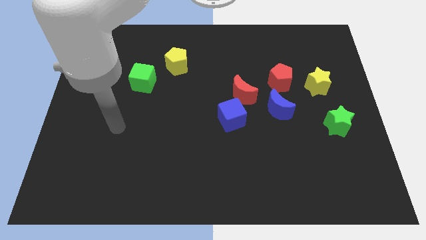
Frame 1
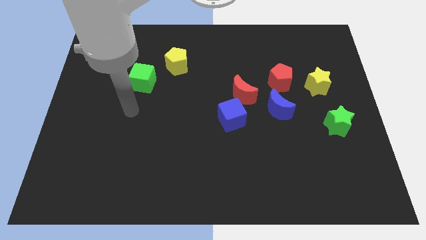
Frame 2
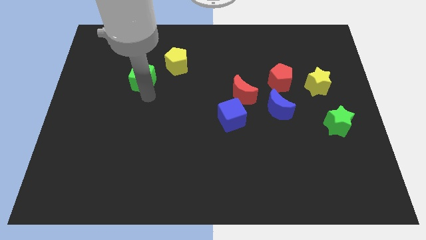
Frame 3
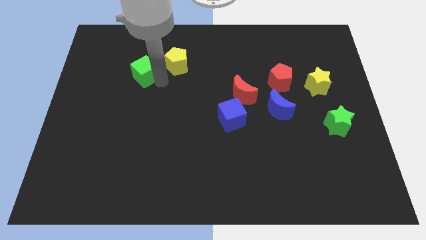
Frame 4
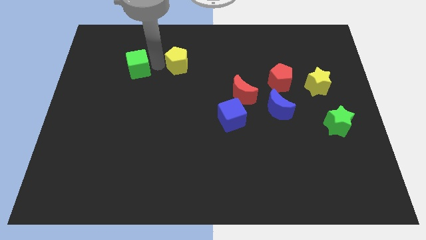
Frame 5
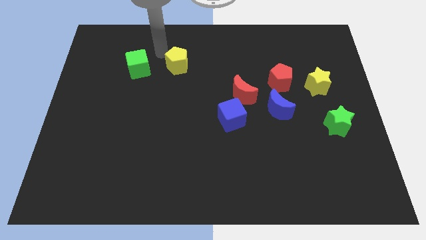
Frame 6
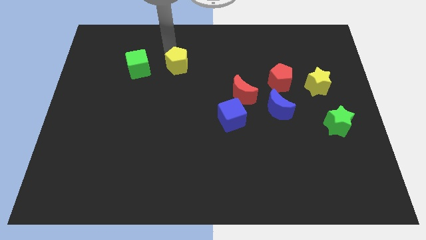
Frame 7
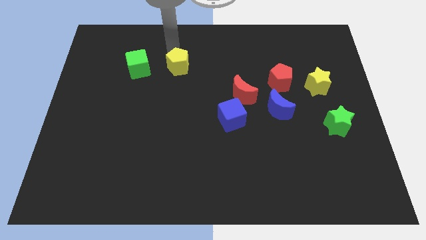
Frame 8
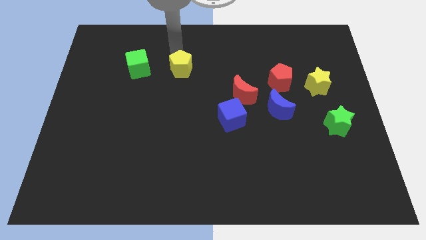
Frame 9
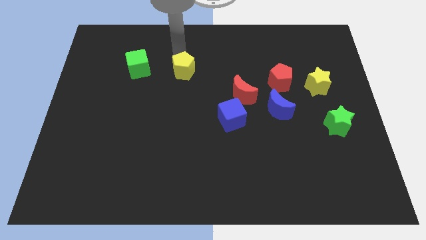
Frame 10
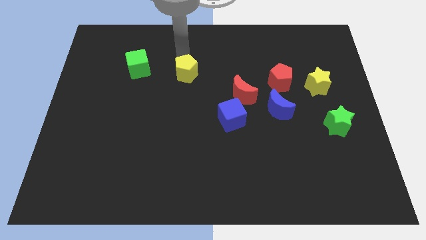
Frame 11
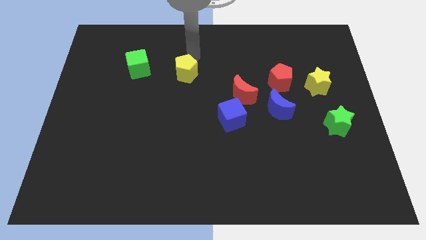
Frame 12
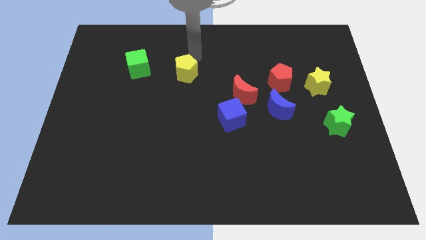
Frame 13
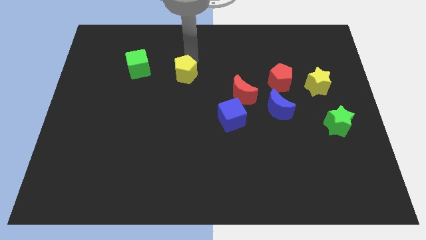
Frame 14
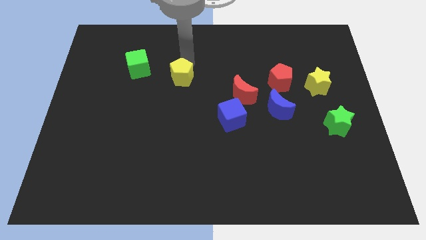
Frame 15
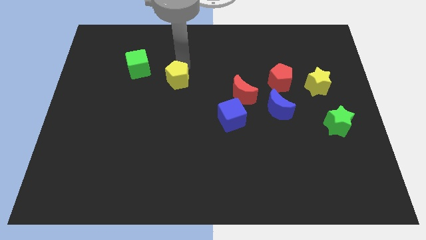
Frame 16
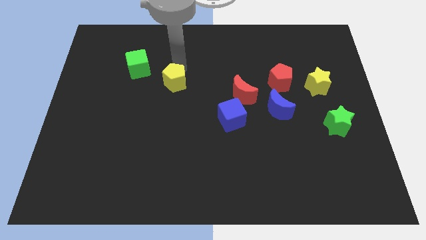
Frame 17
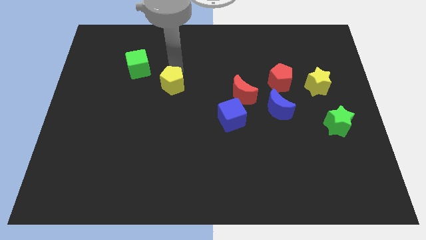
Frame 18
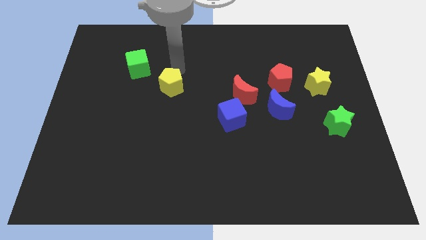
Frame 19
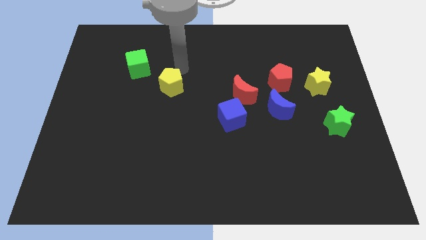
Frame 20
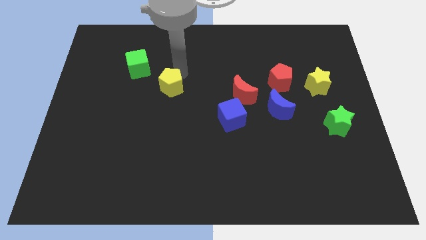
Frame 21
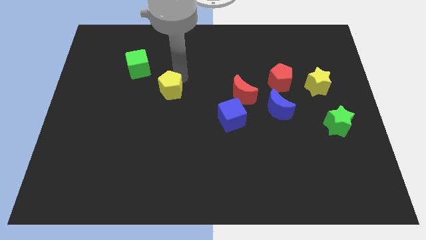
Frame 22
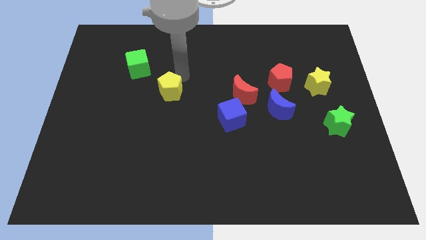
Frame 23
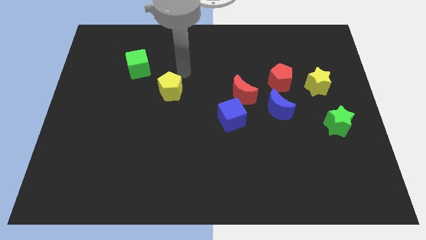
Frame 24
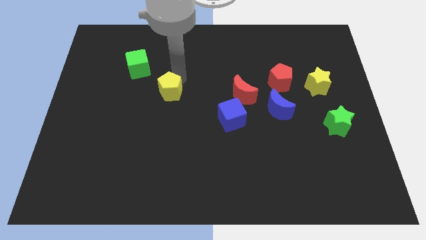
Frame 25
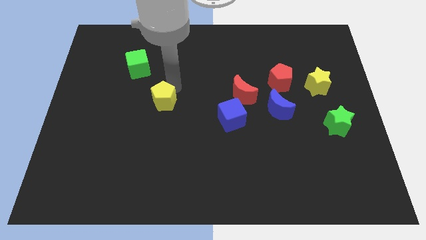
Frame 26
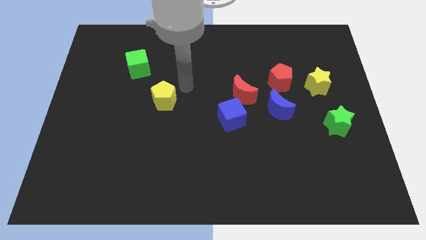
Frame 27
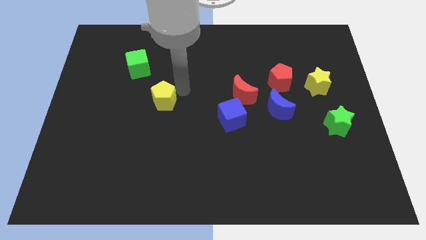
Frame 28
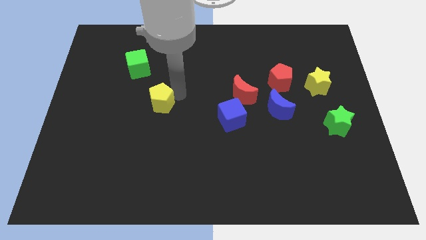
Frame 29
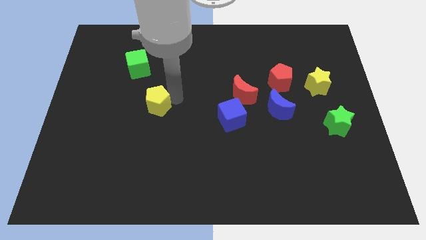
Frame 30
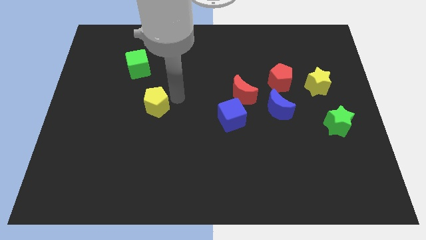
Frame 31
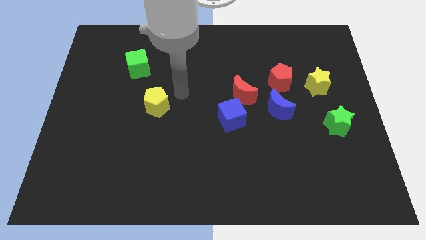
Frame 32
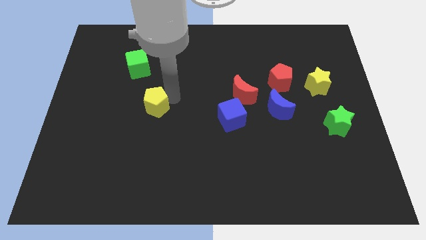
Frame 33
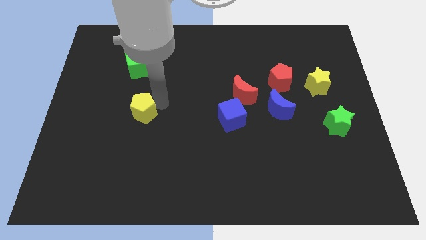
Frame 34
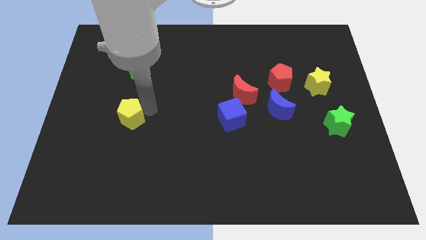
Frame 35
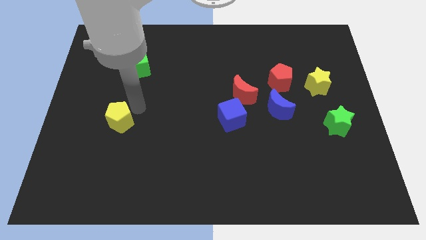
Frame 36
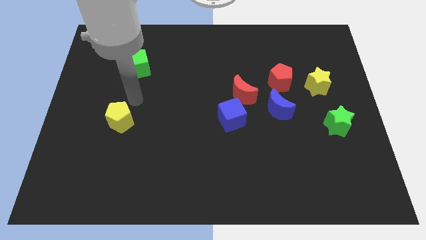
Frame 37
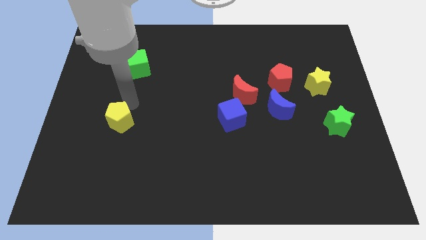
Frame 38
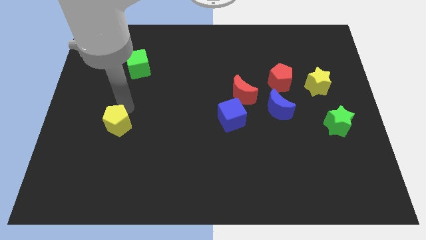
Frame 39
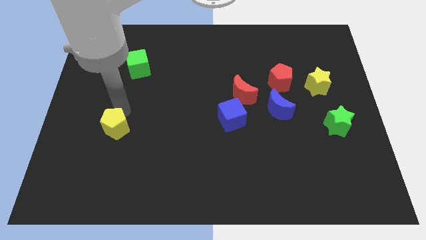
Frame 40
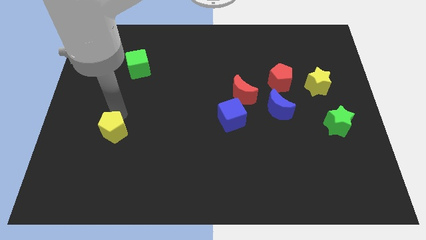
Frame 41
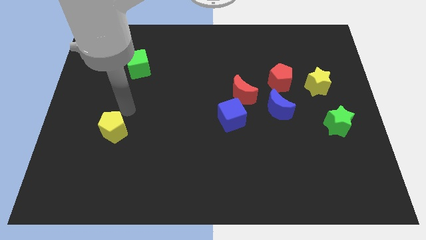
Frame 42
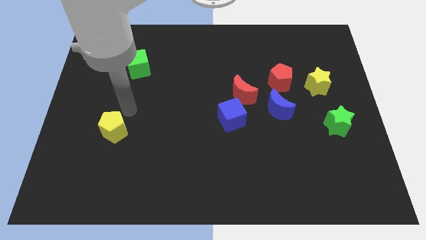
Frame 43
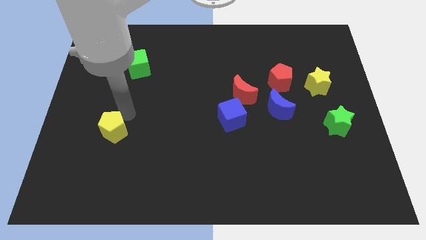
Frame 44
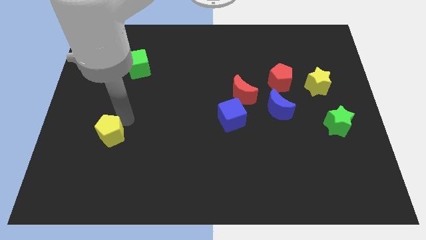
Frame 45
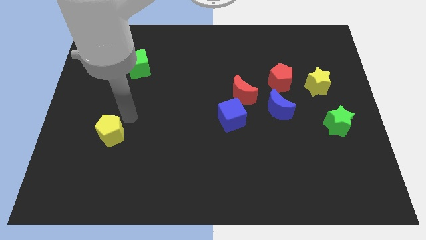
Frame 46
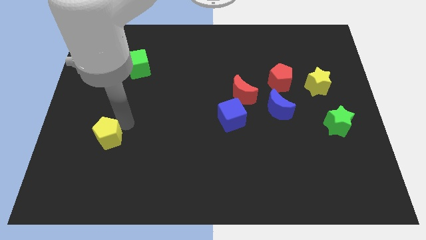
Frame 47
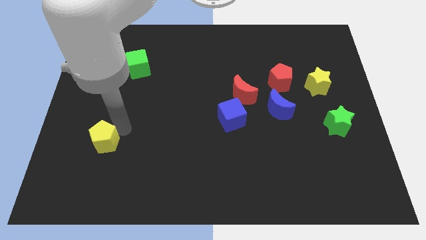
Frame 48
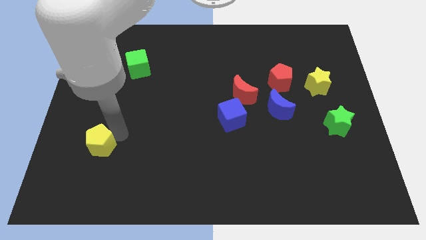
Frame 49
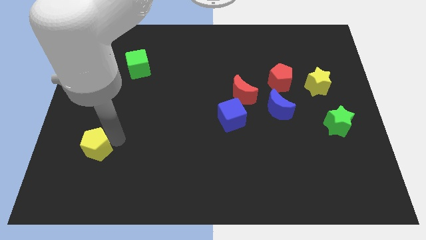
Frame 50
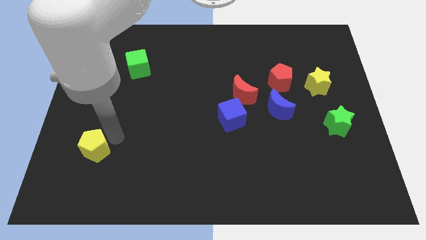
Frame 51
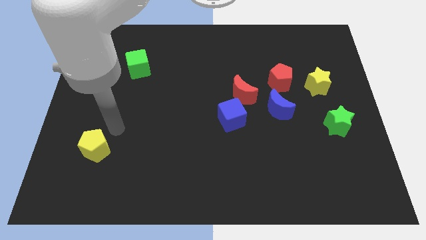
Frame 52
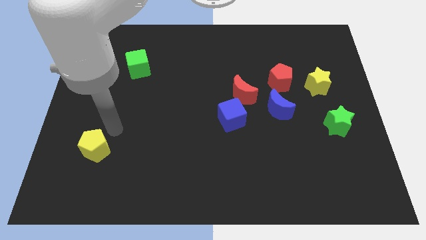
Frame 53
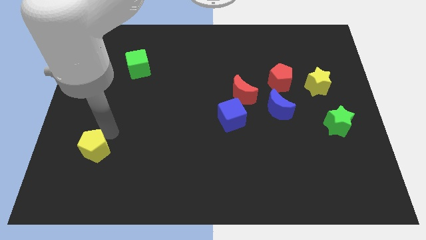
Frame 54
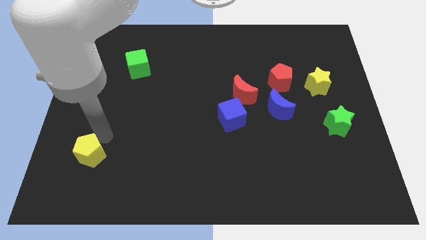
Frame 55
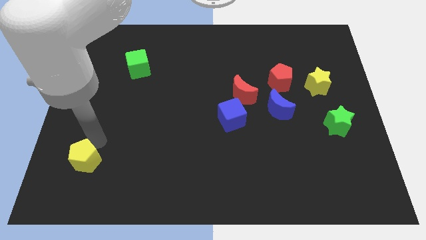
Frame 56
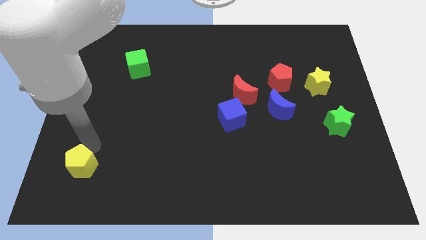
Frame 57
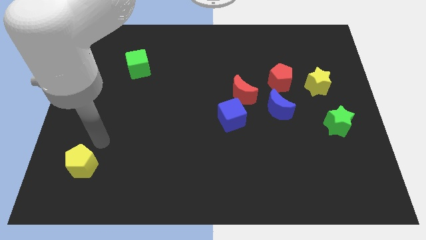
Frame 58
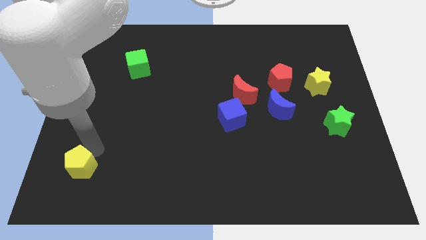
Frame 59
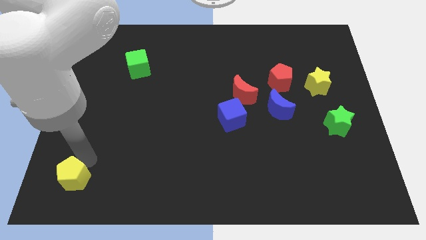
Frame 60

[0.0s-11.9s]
push the yellow pentagon to the lower left corner
